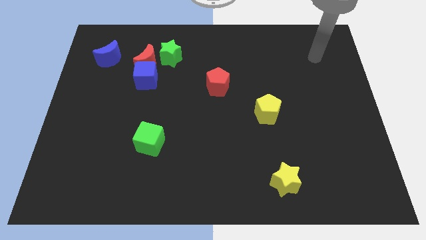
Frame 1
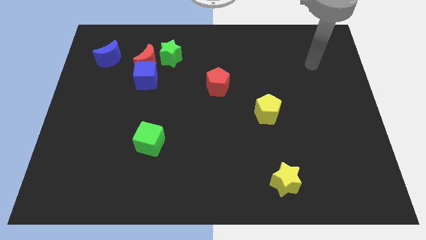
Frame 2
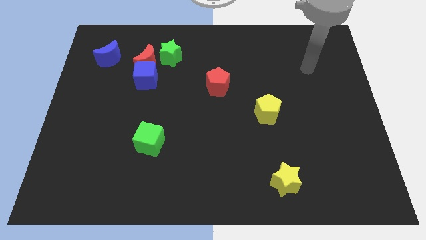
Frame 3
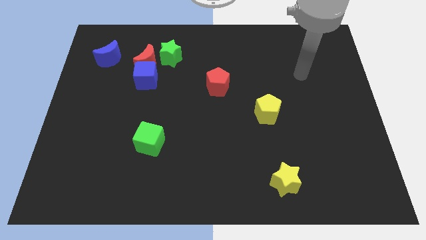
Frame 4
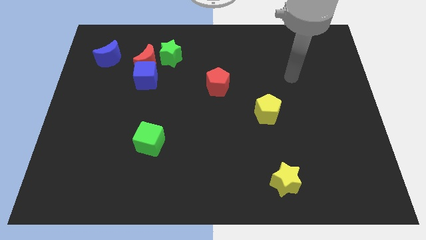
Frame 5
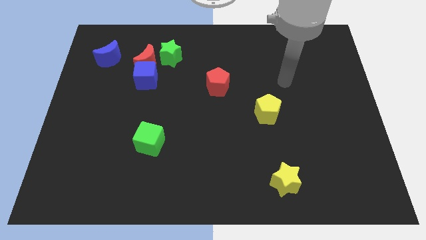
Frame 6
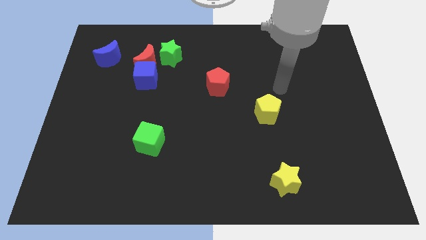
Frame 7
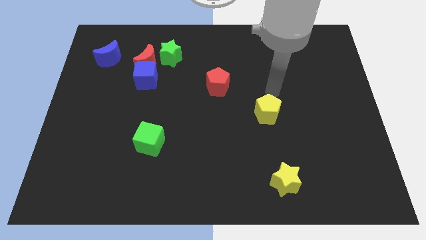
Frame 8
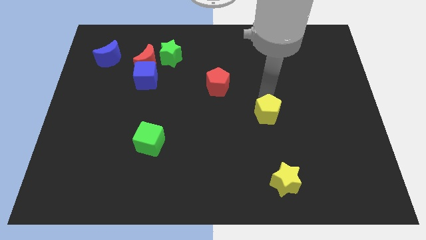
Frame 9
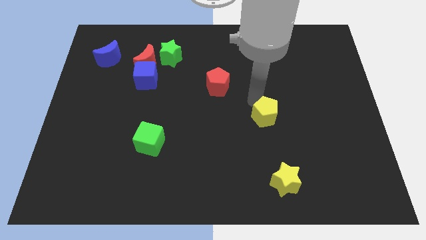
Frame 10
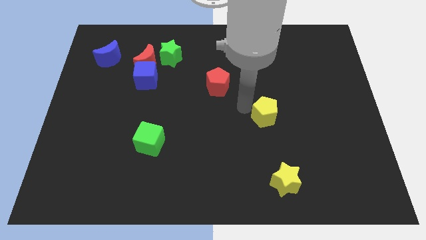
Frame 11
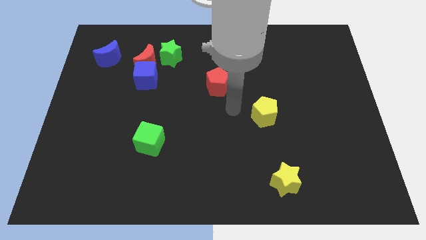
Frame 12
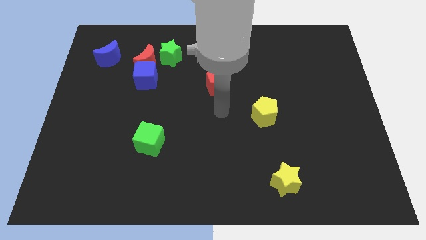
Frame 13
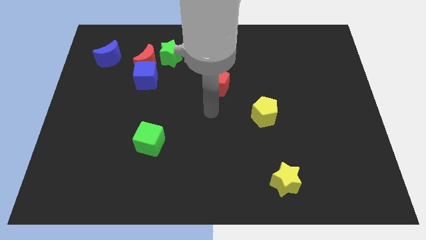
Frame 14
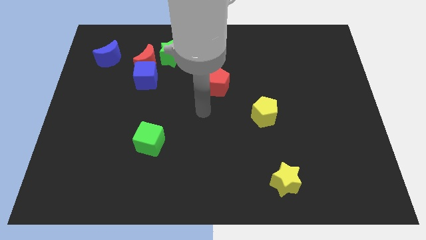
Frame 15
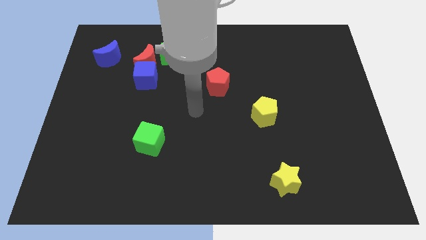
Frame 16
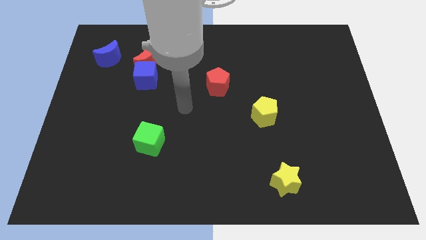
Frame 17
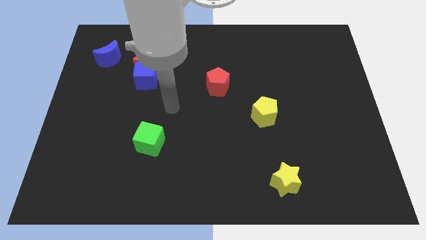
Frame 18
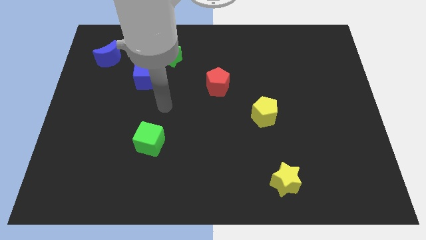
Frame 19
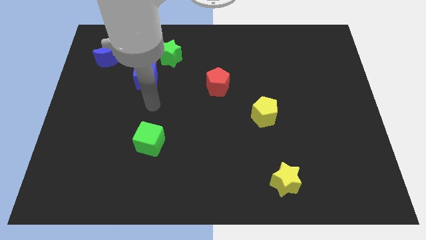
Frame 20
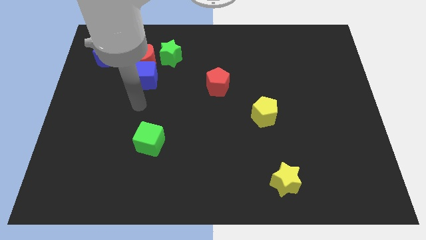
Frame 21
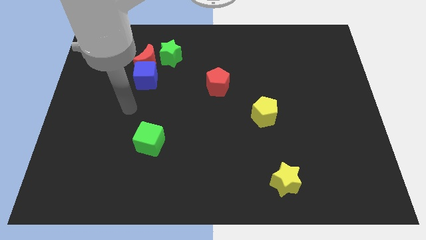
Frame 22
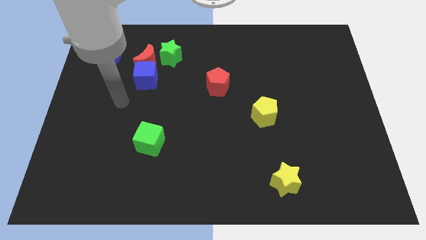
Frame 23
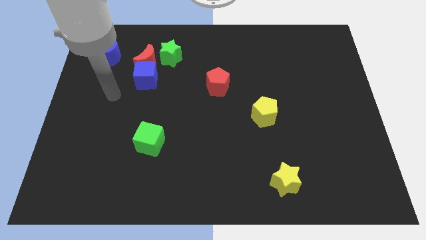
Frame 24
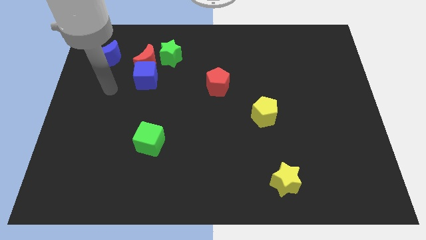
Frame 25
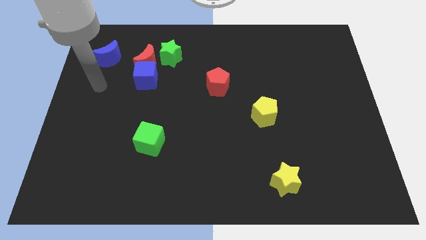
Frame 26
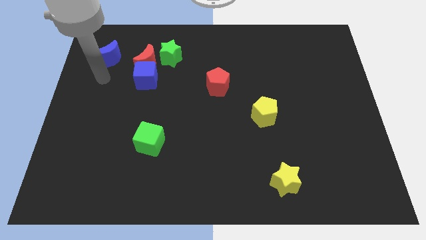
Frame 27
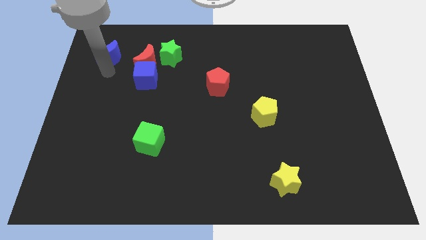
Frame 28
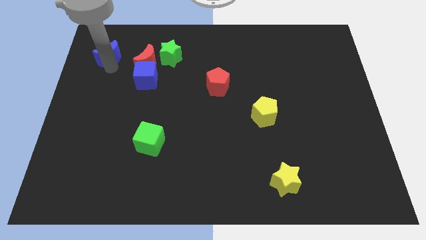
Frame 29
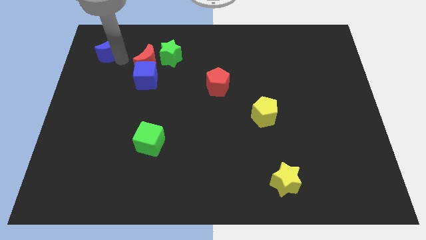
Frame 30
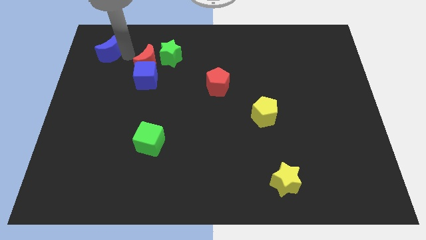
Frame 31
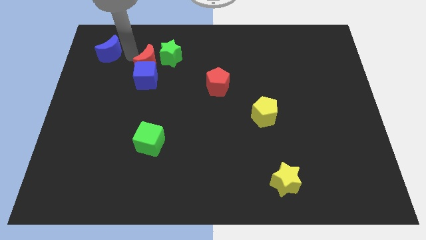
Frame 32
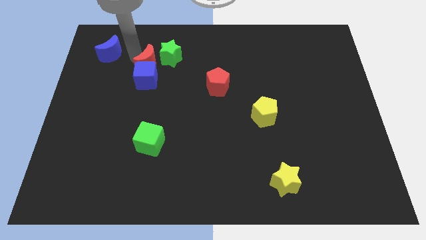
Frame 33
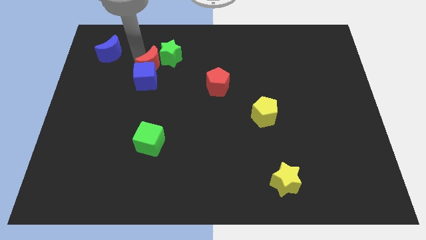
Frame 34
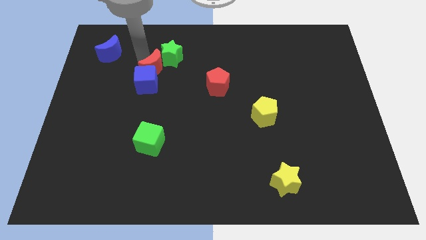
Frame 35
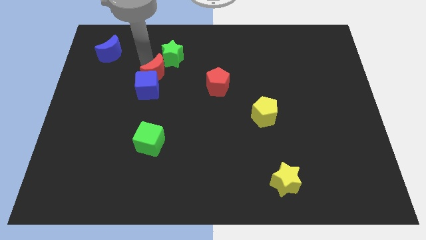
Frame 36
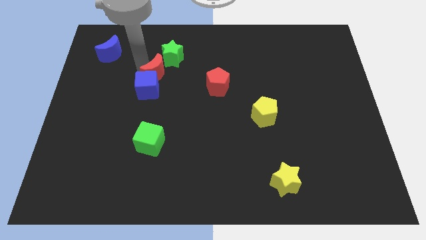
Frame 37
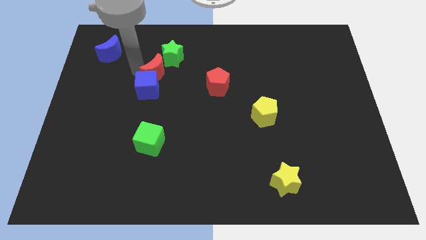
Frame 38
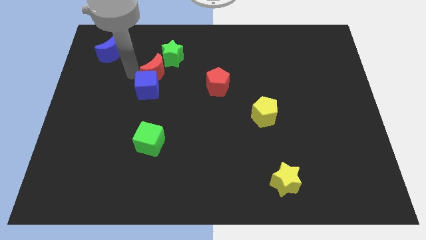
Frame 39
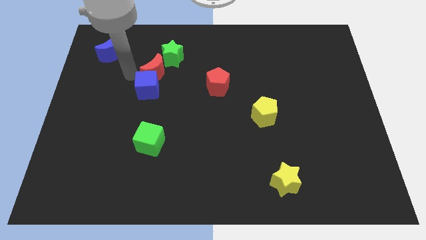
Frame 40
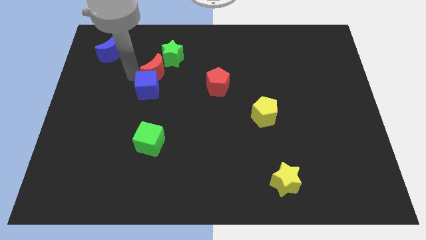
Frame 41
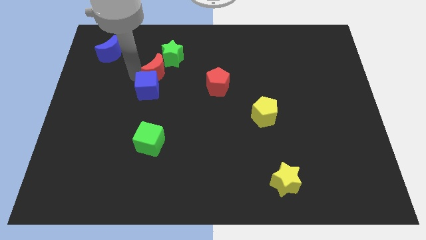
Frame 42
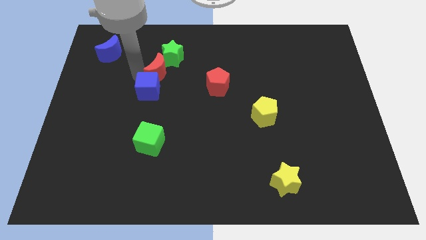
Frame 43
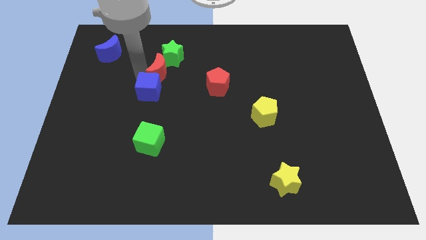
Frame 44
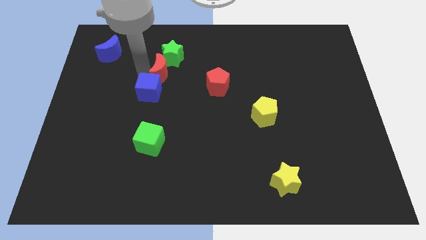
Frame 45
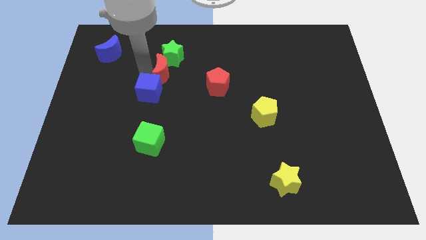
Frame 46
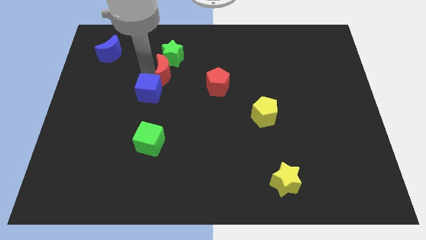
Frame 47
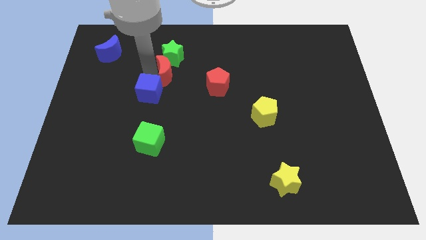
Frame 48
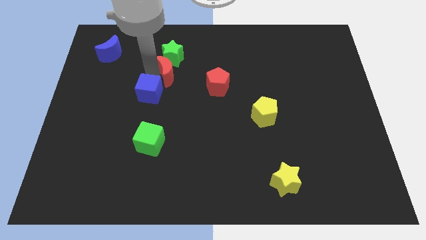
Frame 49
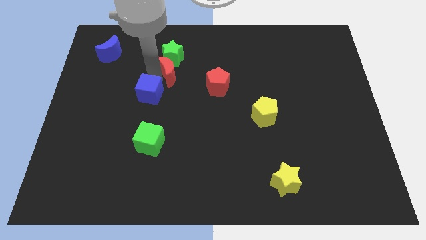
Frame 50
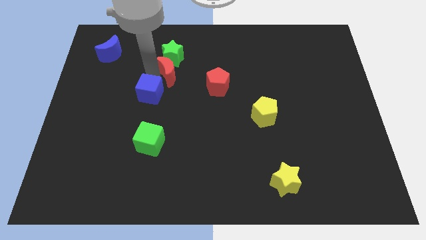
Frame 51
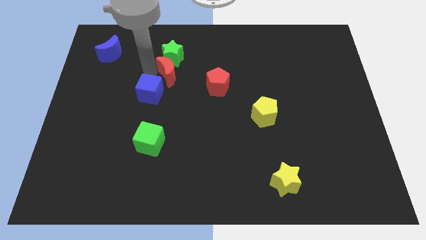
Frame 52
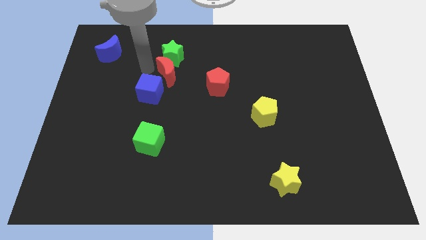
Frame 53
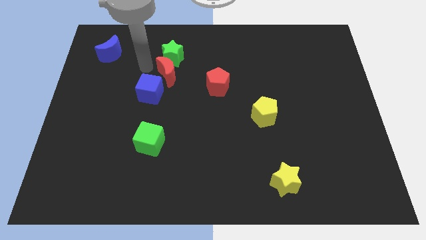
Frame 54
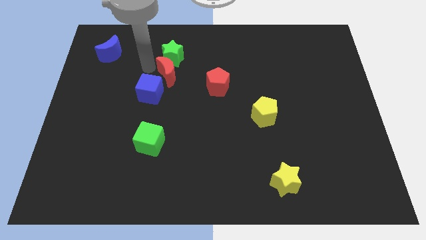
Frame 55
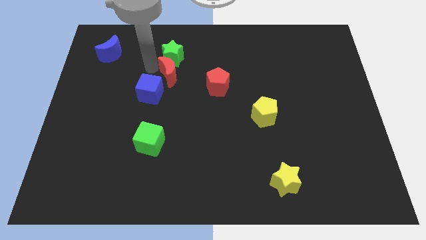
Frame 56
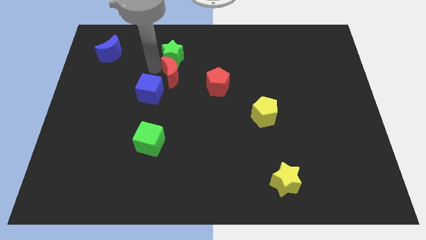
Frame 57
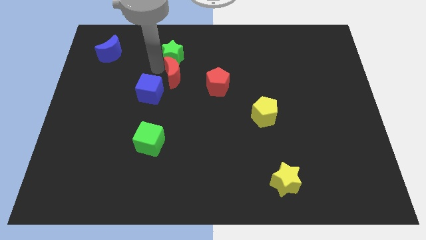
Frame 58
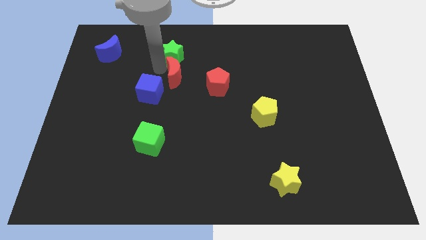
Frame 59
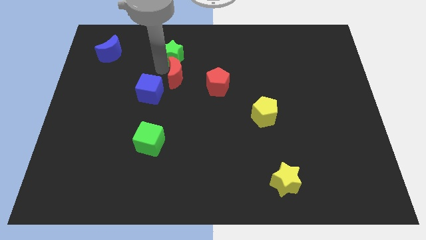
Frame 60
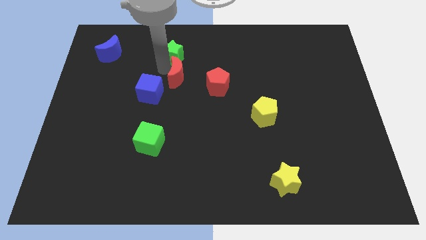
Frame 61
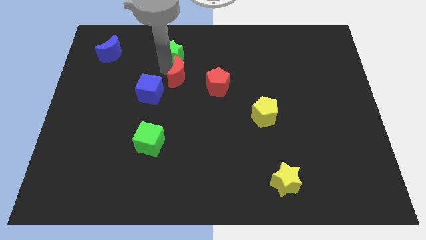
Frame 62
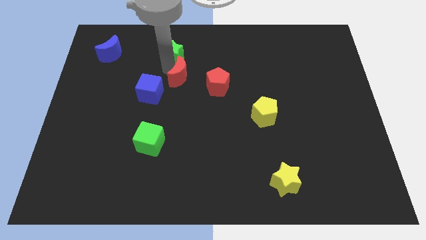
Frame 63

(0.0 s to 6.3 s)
move the red moon away from the blue cube, green star, and blue moon

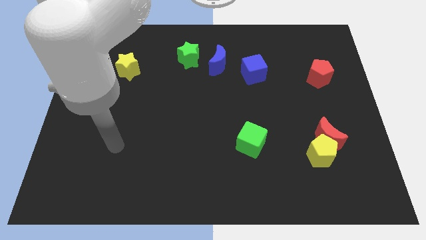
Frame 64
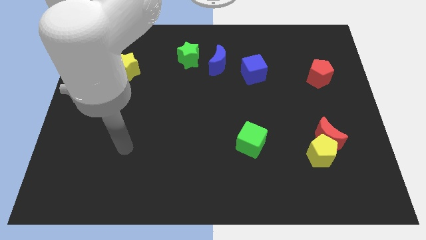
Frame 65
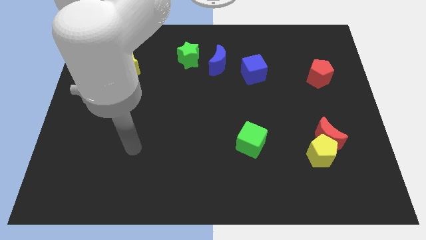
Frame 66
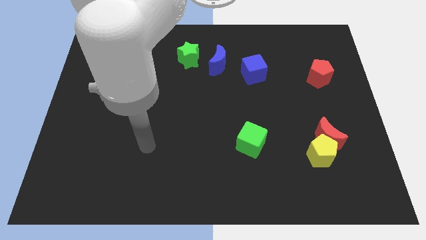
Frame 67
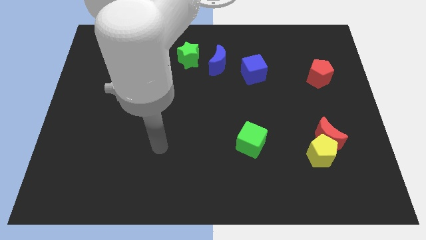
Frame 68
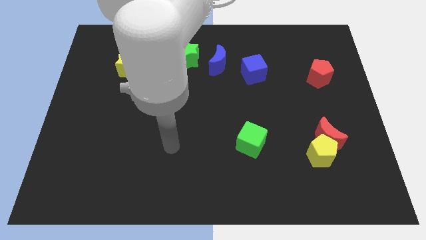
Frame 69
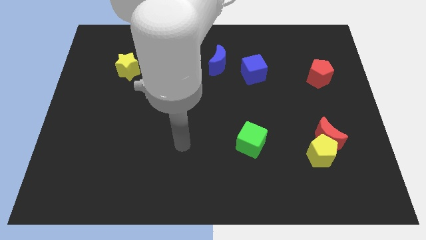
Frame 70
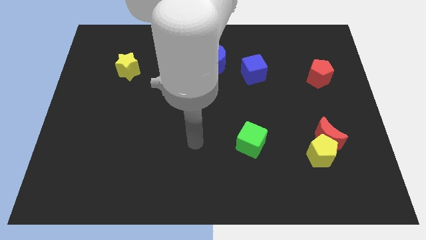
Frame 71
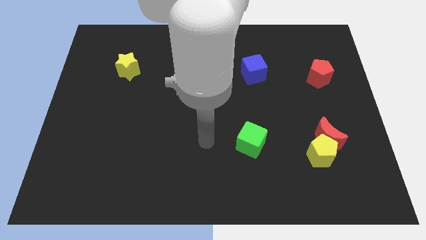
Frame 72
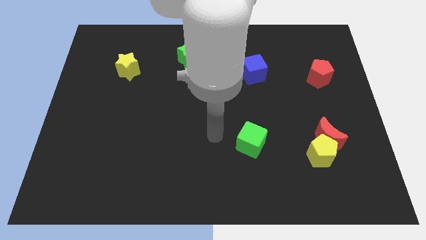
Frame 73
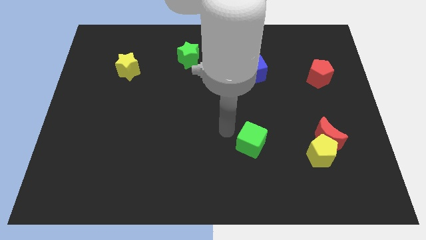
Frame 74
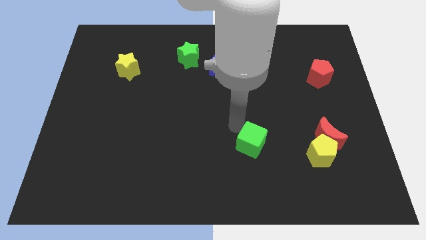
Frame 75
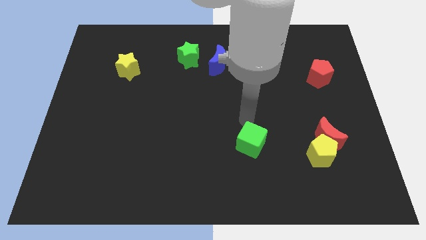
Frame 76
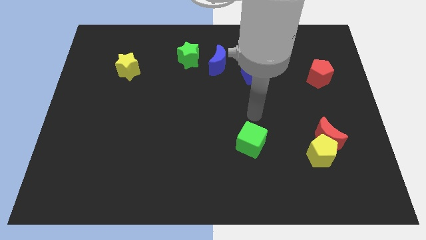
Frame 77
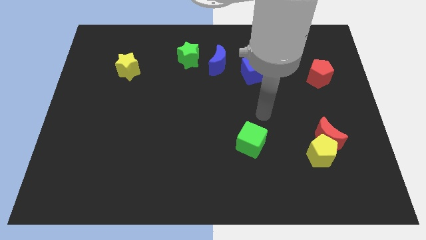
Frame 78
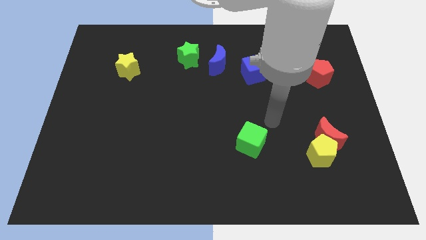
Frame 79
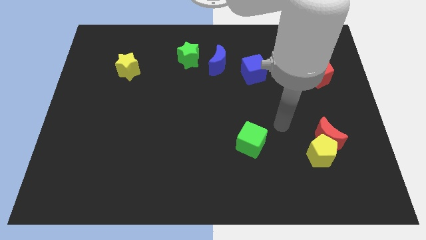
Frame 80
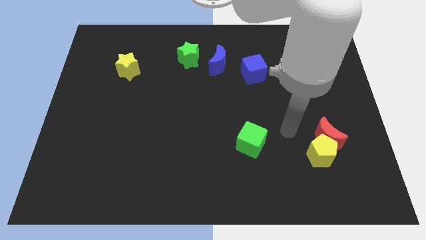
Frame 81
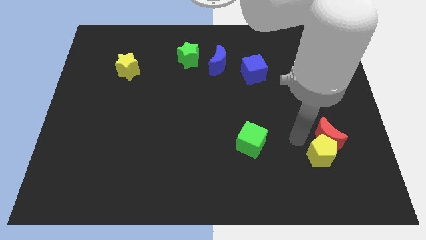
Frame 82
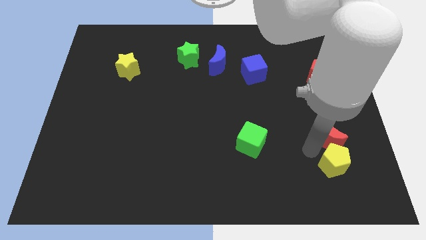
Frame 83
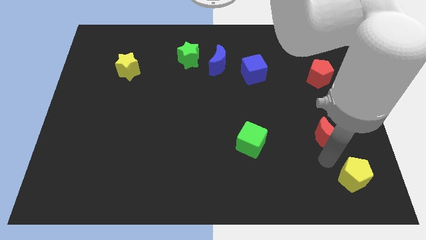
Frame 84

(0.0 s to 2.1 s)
separate the red moon from the yellow pentagon

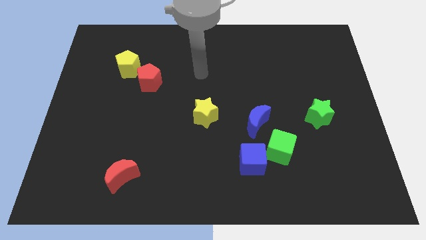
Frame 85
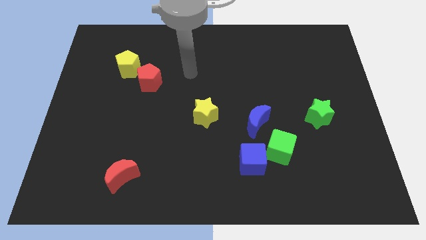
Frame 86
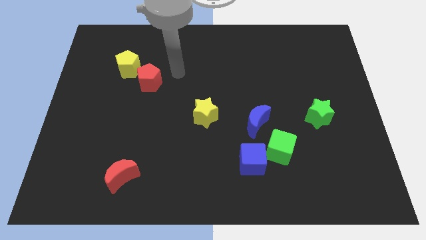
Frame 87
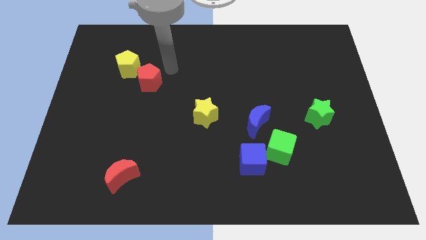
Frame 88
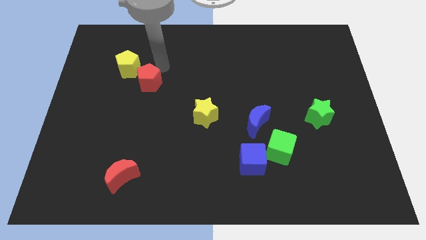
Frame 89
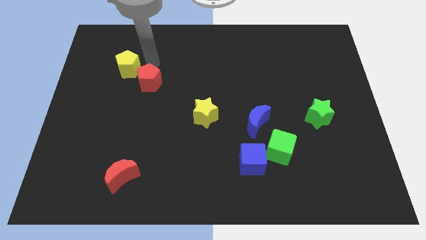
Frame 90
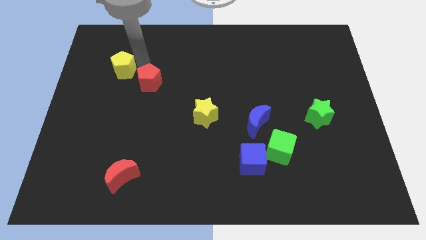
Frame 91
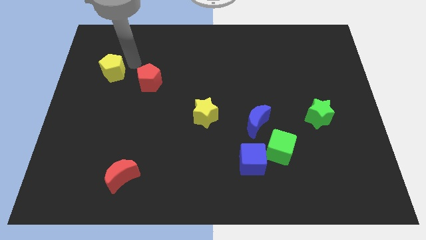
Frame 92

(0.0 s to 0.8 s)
pull the red pentagon apart from the yellow pentagon
